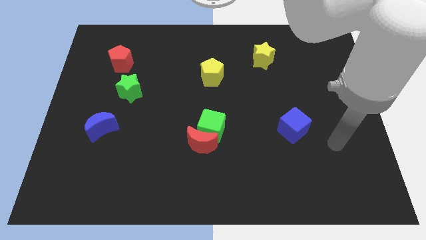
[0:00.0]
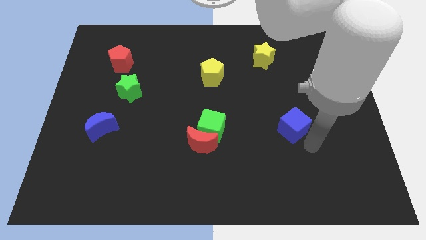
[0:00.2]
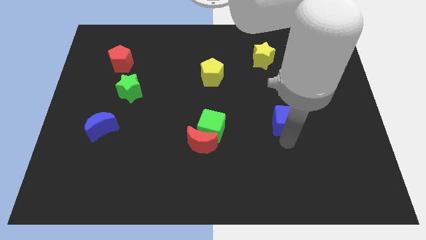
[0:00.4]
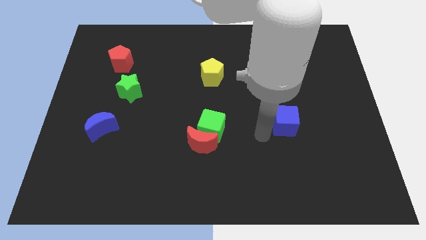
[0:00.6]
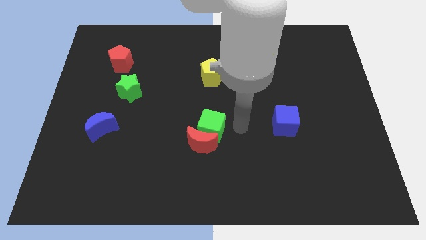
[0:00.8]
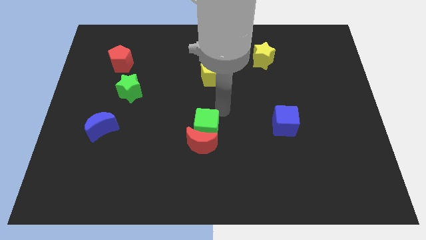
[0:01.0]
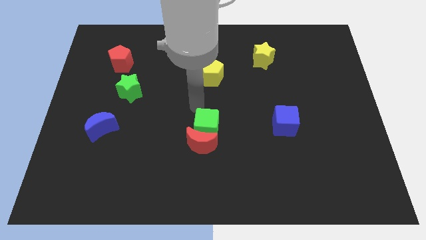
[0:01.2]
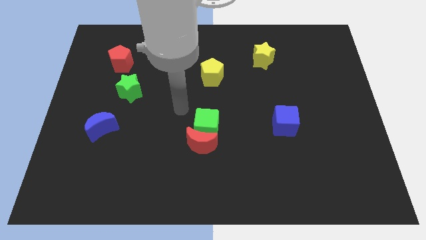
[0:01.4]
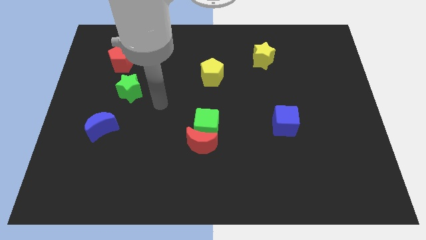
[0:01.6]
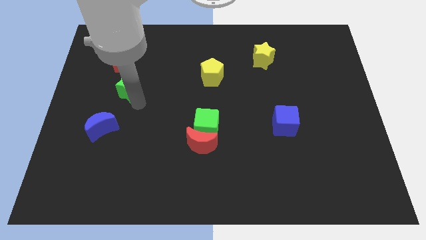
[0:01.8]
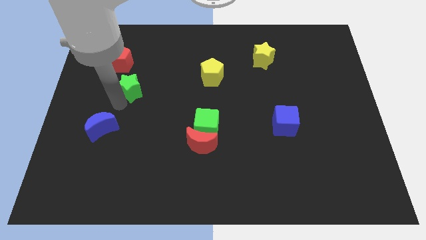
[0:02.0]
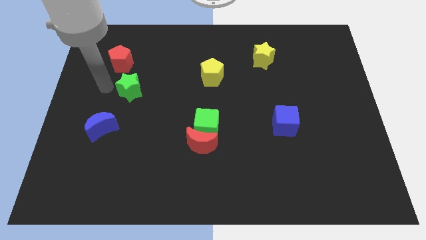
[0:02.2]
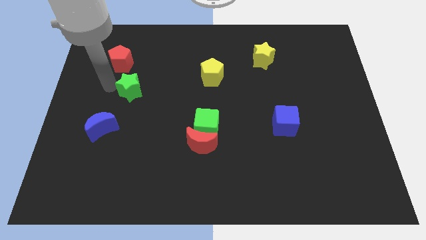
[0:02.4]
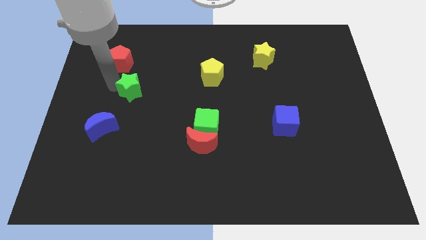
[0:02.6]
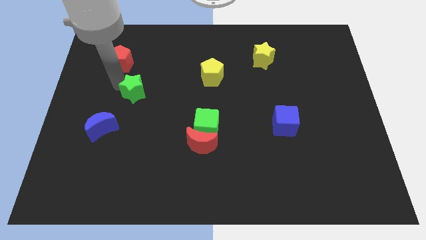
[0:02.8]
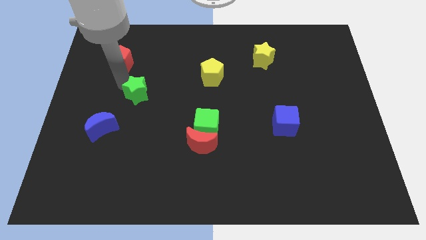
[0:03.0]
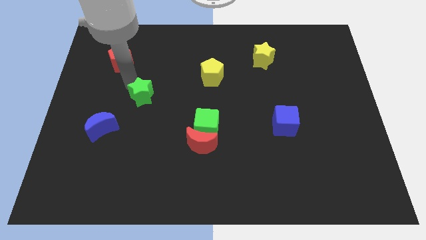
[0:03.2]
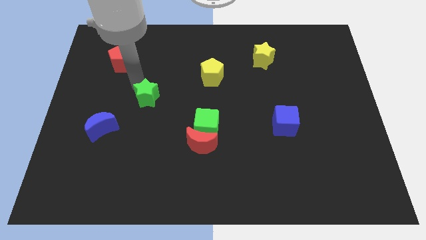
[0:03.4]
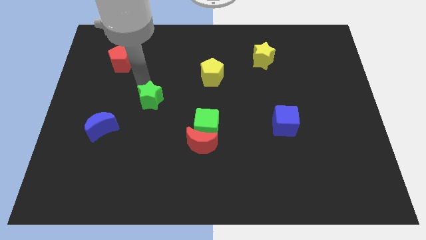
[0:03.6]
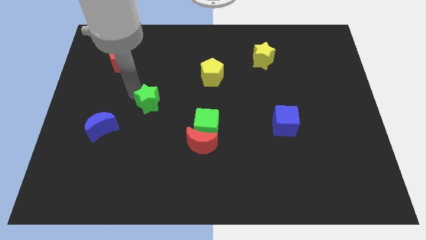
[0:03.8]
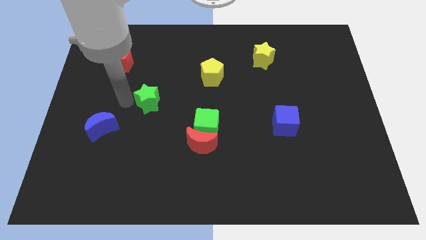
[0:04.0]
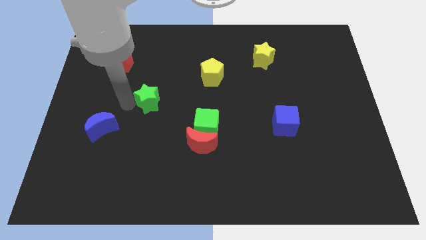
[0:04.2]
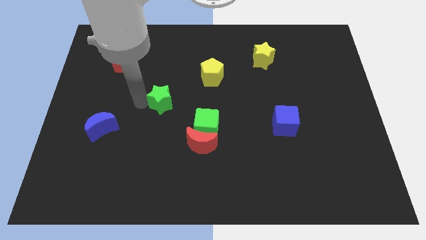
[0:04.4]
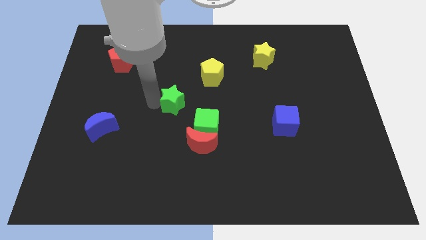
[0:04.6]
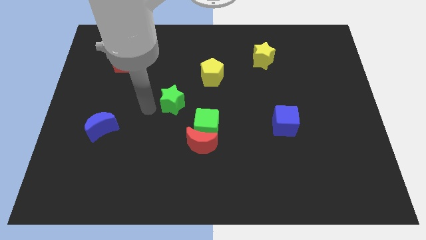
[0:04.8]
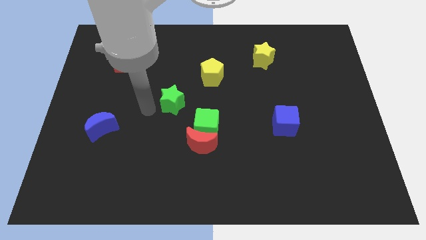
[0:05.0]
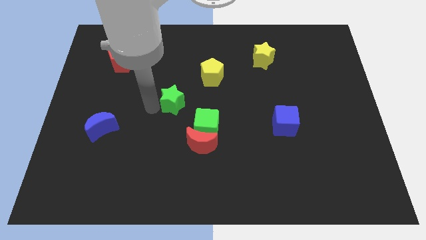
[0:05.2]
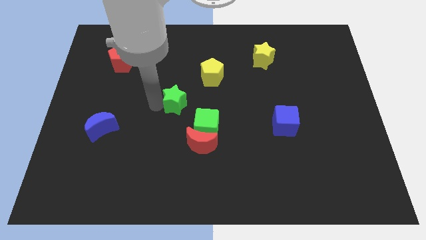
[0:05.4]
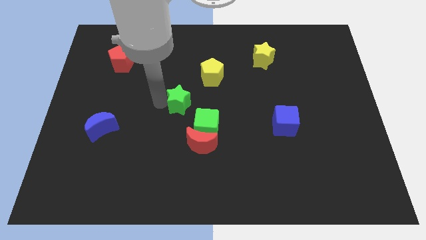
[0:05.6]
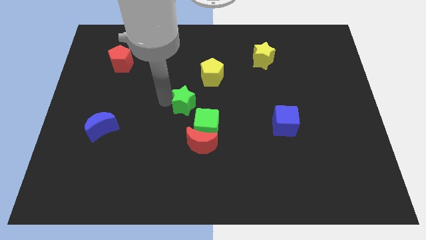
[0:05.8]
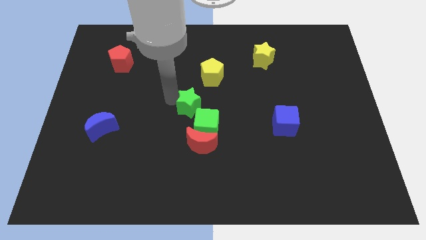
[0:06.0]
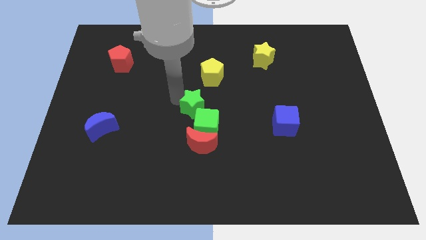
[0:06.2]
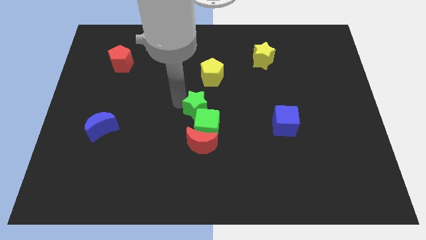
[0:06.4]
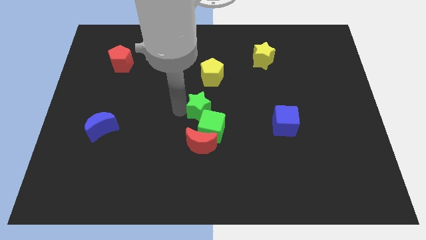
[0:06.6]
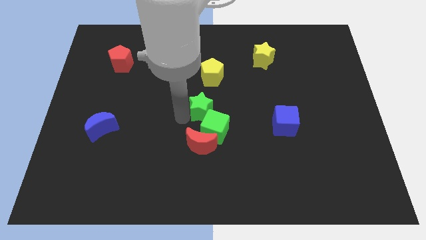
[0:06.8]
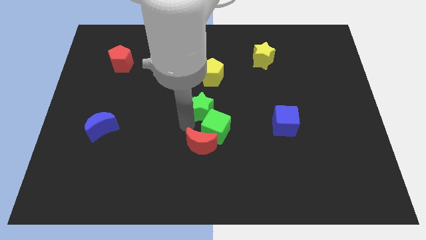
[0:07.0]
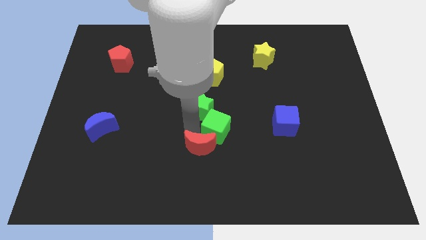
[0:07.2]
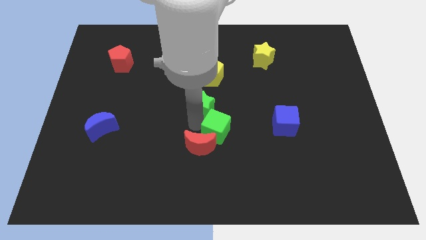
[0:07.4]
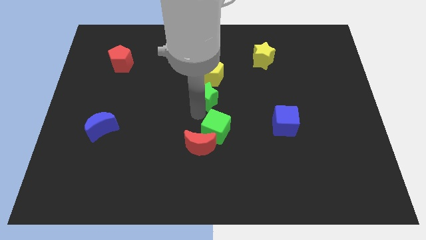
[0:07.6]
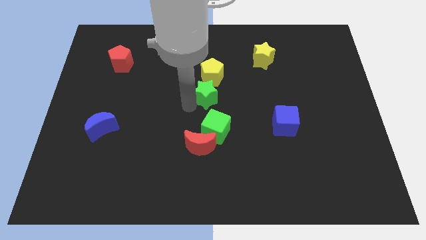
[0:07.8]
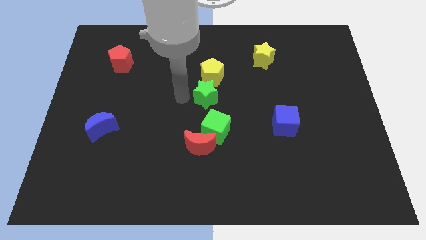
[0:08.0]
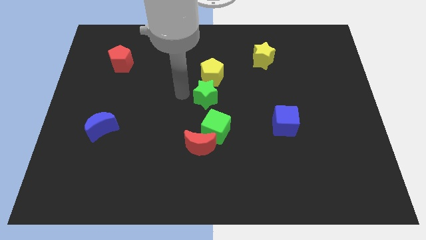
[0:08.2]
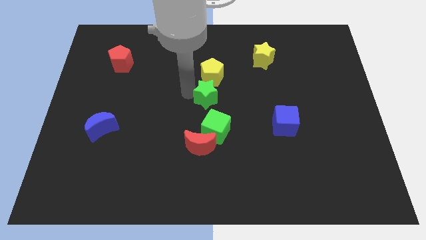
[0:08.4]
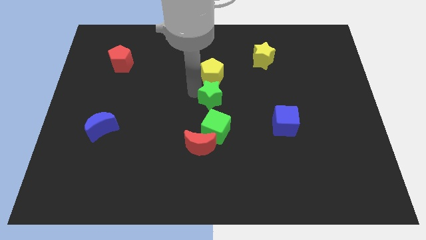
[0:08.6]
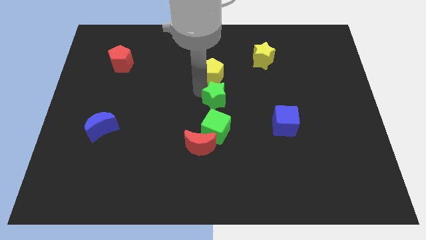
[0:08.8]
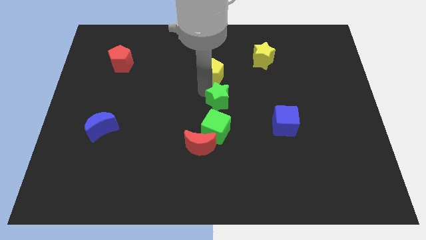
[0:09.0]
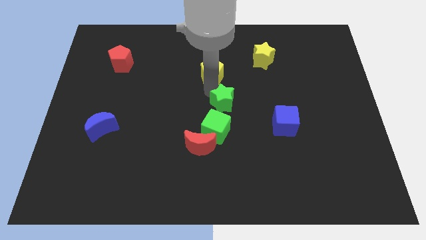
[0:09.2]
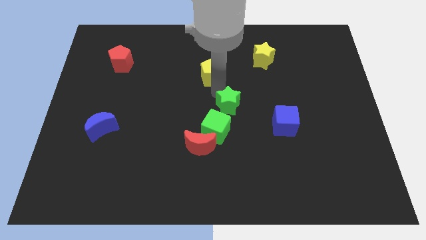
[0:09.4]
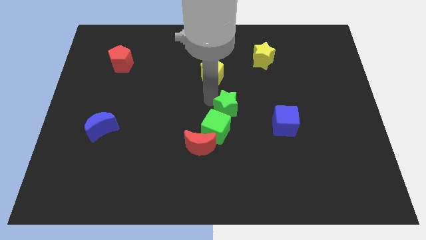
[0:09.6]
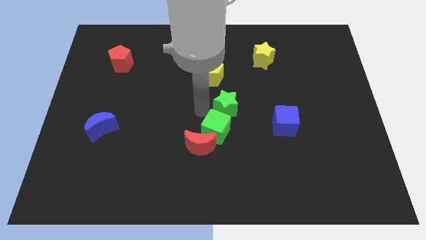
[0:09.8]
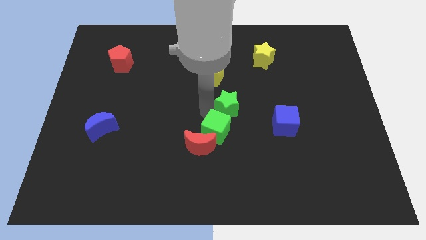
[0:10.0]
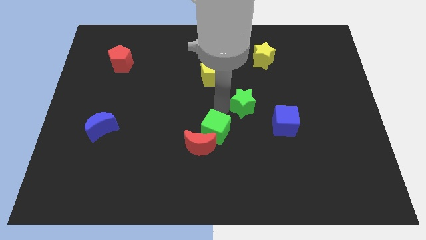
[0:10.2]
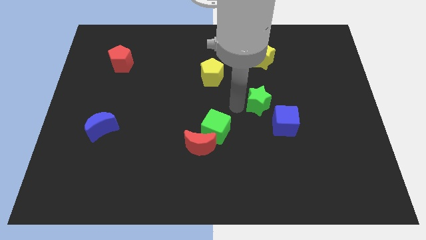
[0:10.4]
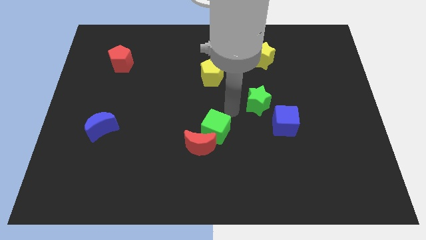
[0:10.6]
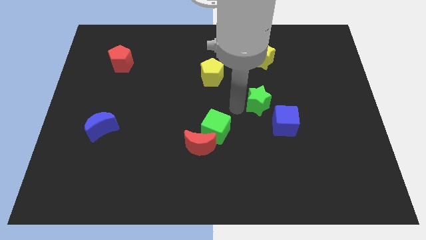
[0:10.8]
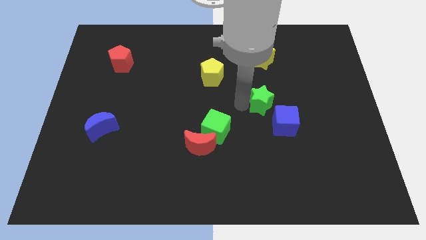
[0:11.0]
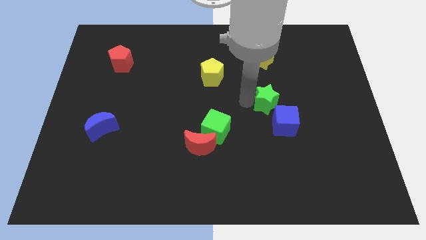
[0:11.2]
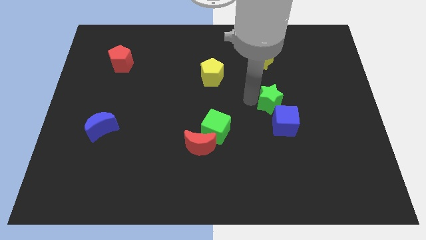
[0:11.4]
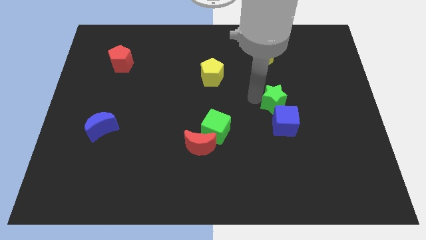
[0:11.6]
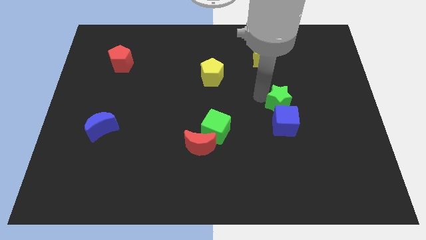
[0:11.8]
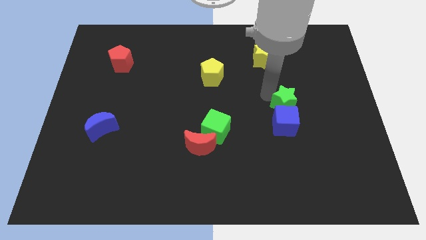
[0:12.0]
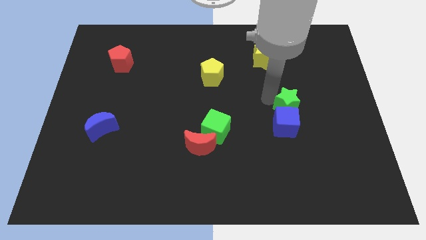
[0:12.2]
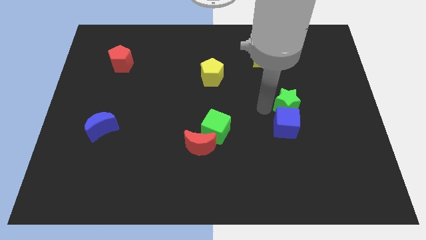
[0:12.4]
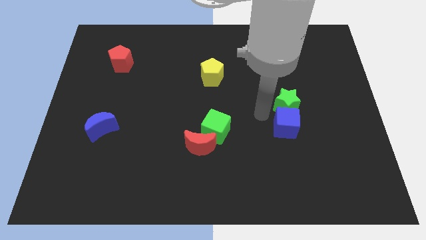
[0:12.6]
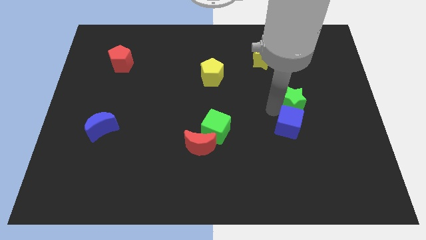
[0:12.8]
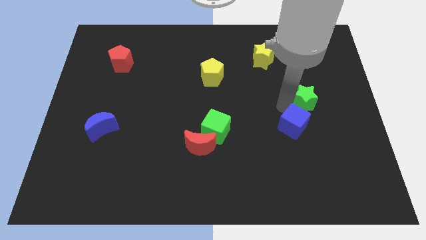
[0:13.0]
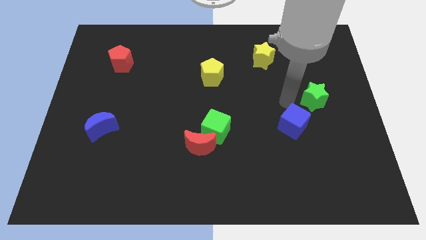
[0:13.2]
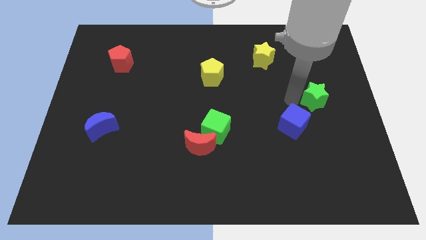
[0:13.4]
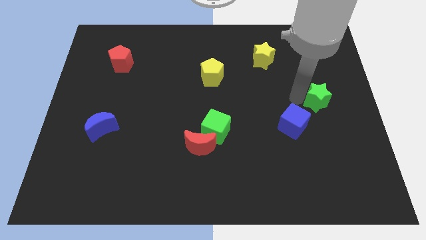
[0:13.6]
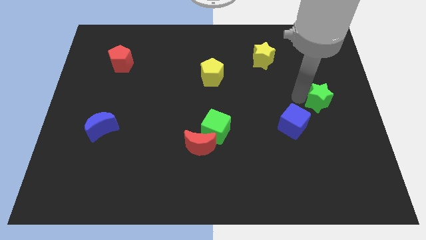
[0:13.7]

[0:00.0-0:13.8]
slide the green star to the center right

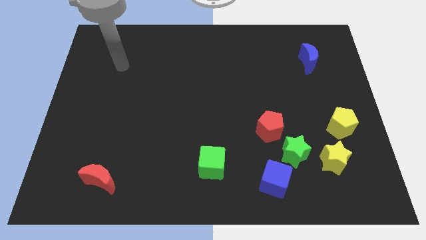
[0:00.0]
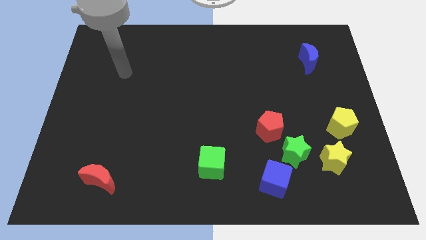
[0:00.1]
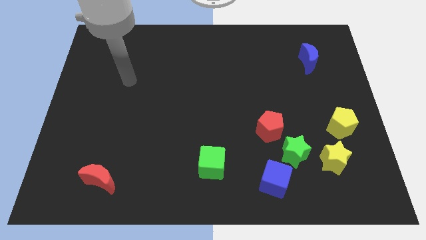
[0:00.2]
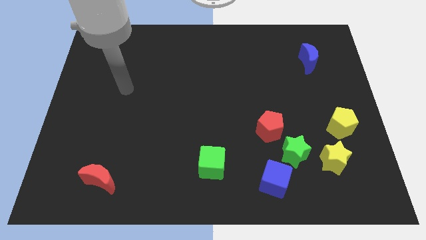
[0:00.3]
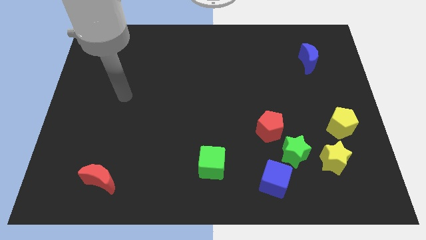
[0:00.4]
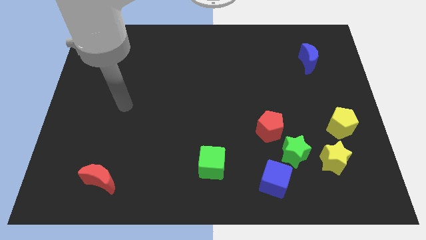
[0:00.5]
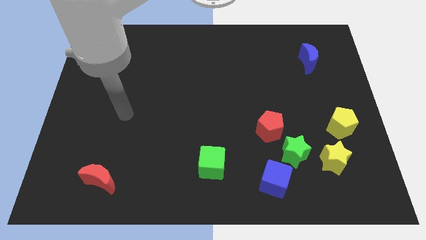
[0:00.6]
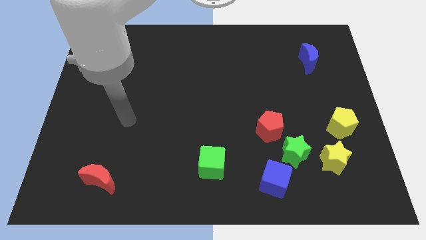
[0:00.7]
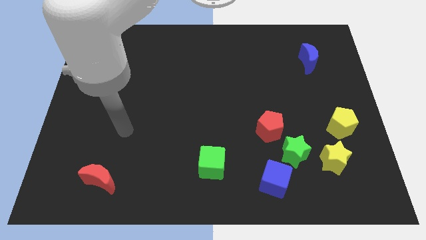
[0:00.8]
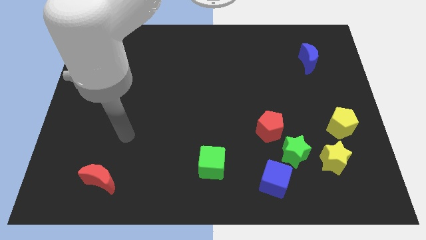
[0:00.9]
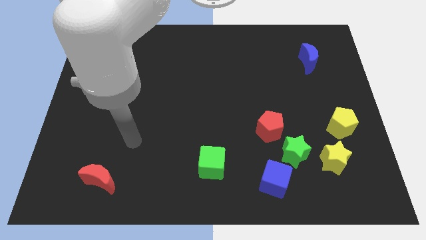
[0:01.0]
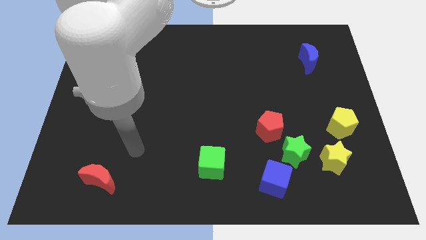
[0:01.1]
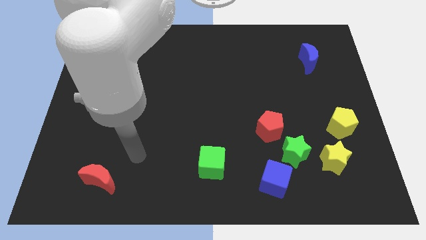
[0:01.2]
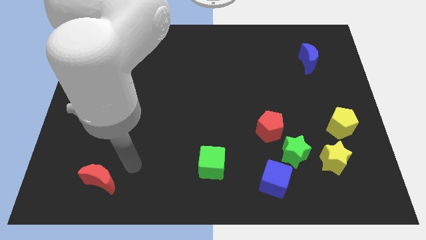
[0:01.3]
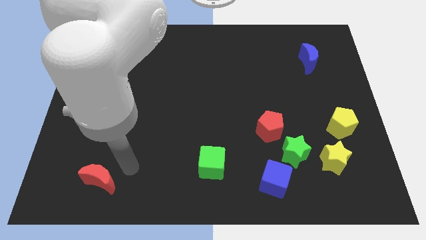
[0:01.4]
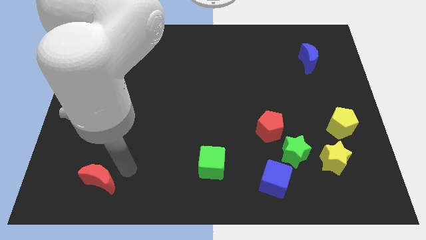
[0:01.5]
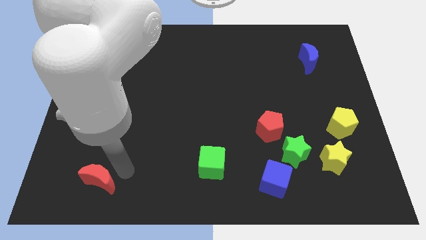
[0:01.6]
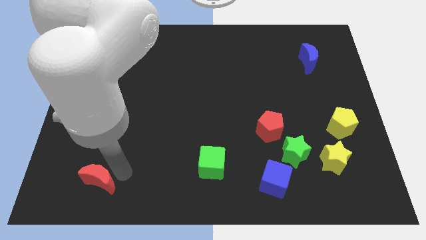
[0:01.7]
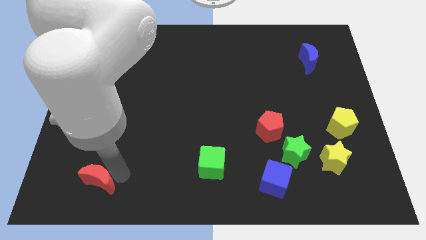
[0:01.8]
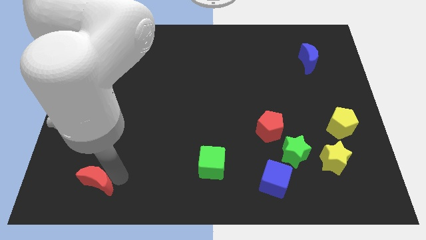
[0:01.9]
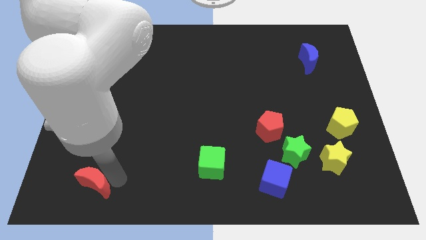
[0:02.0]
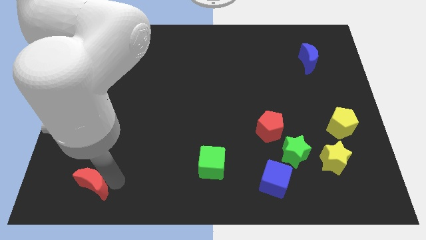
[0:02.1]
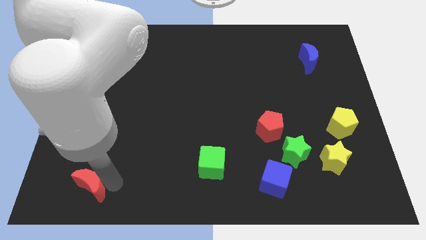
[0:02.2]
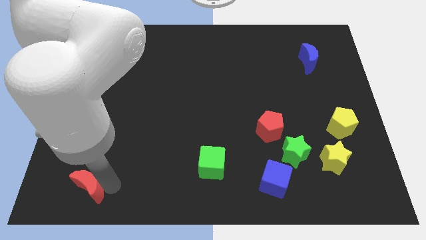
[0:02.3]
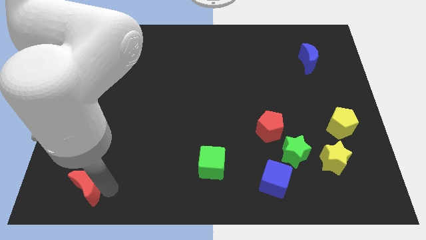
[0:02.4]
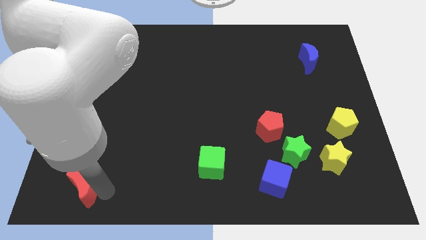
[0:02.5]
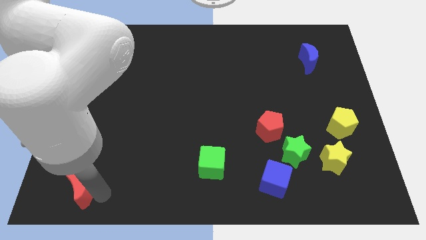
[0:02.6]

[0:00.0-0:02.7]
put the red moon to the bottom left of the board
